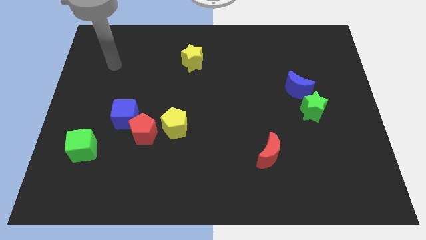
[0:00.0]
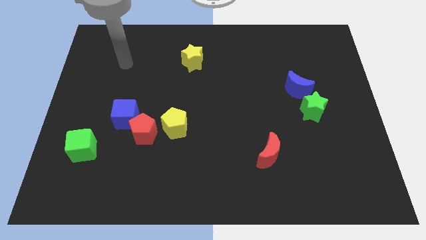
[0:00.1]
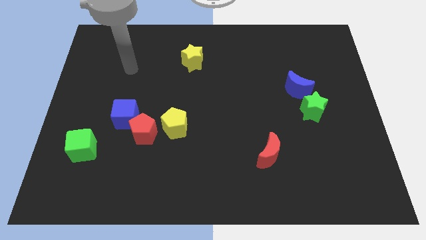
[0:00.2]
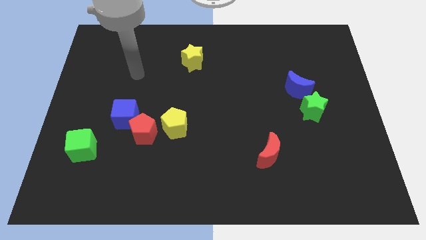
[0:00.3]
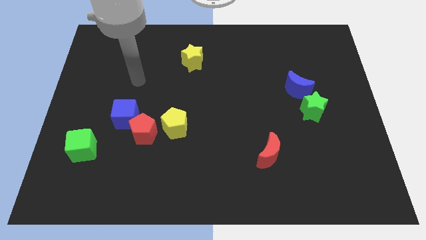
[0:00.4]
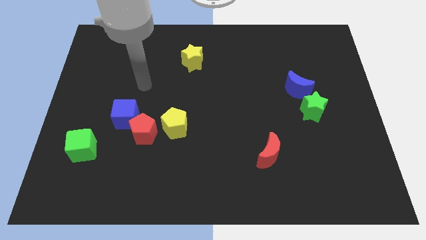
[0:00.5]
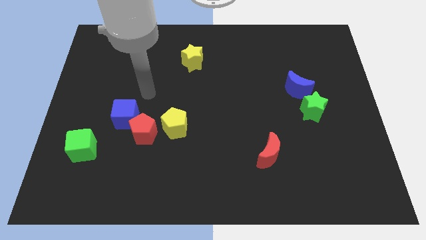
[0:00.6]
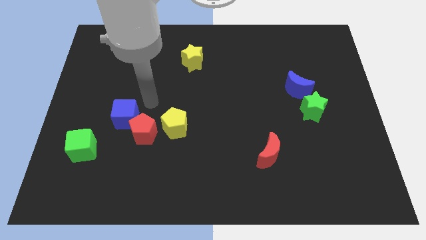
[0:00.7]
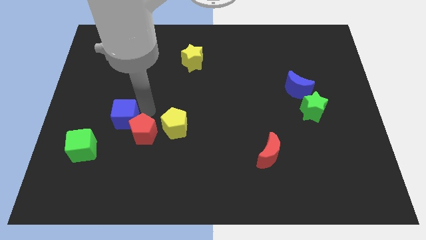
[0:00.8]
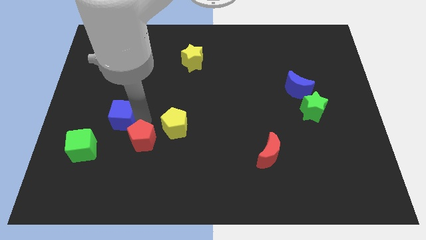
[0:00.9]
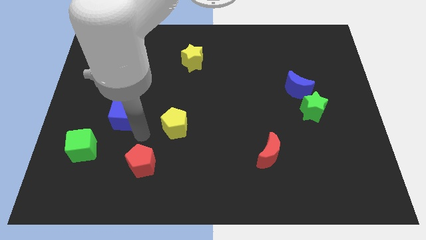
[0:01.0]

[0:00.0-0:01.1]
separate the blue cube from the red pentagon

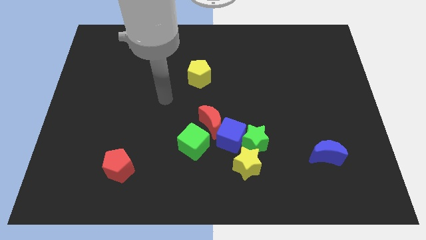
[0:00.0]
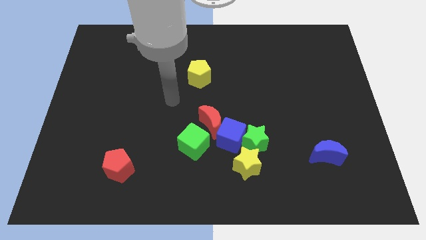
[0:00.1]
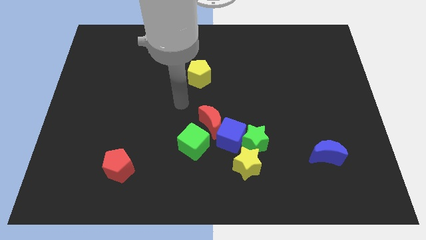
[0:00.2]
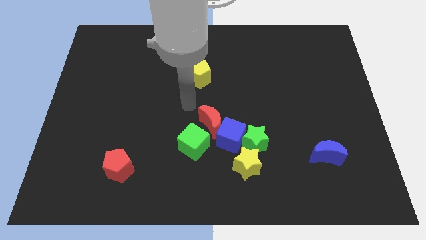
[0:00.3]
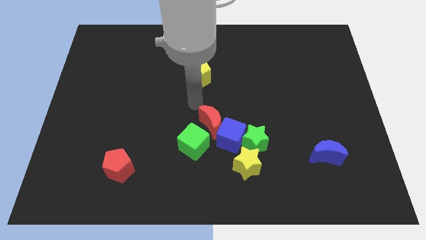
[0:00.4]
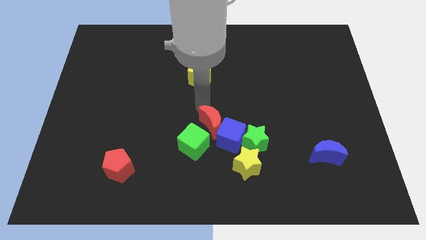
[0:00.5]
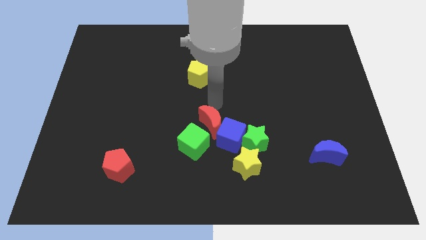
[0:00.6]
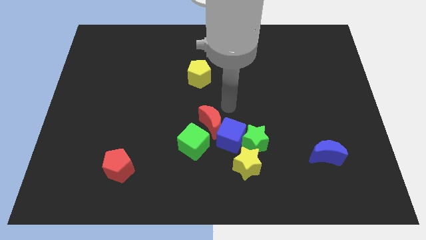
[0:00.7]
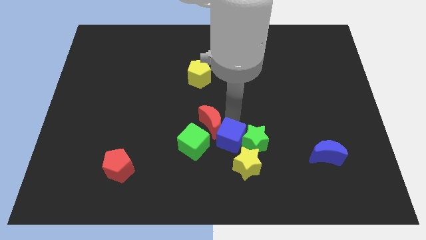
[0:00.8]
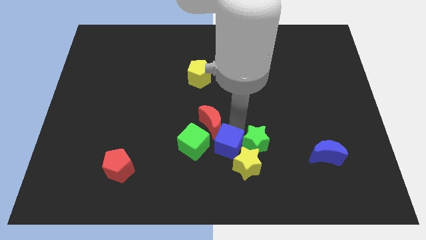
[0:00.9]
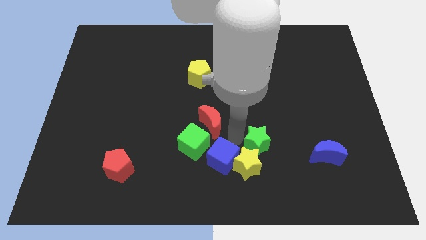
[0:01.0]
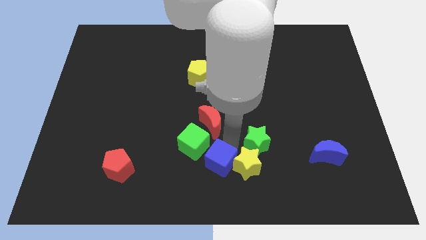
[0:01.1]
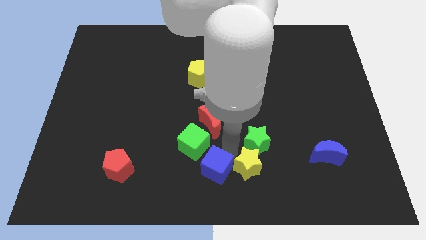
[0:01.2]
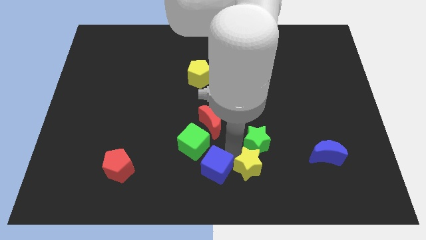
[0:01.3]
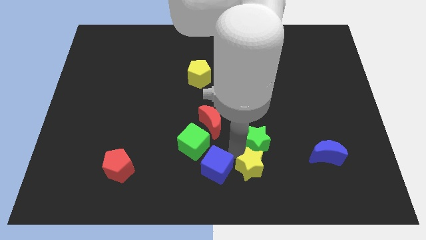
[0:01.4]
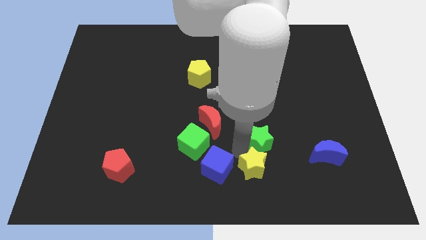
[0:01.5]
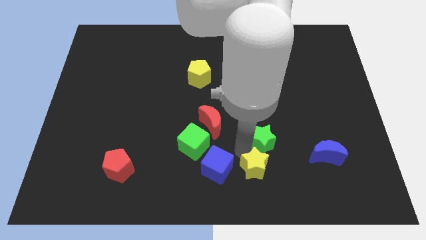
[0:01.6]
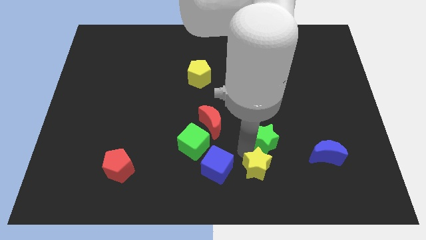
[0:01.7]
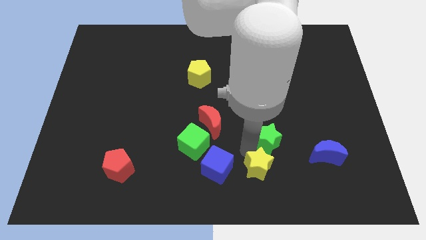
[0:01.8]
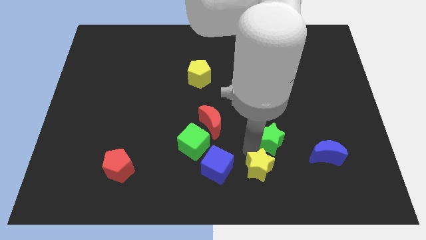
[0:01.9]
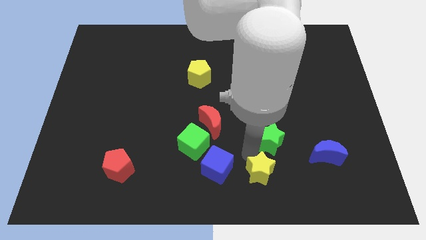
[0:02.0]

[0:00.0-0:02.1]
separate the green star from the blue cube and yellow star

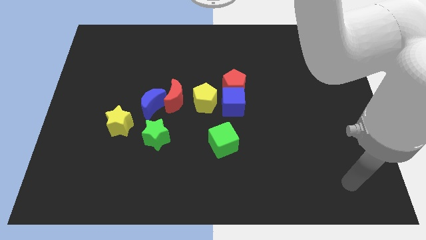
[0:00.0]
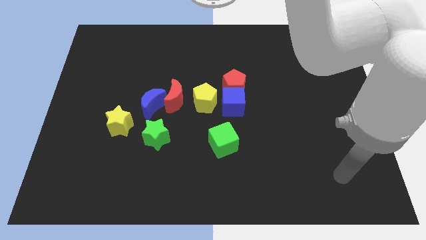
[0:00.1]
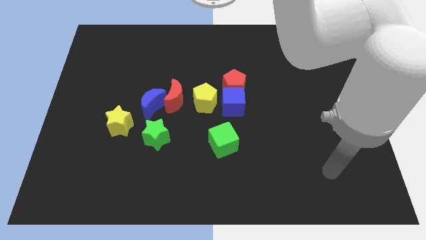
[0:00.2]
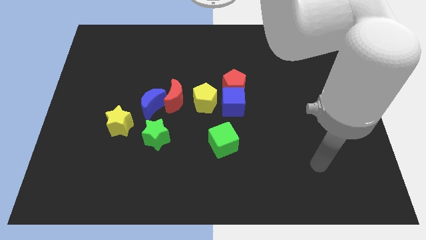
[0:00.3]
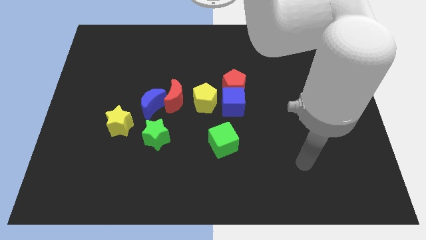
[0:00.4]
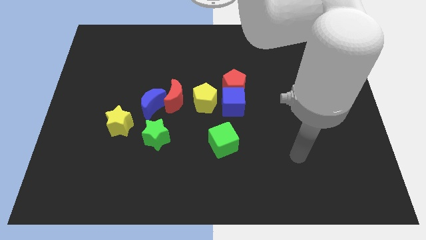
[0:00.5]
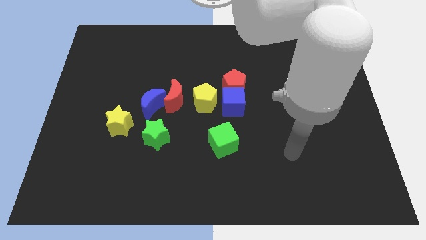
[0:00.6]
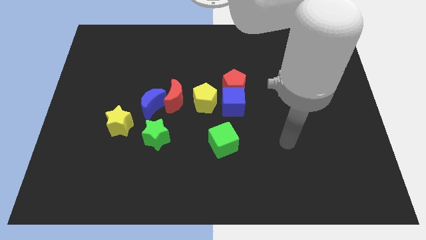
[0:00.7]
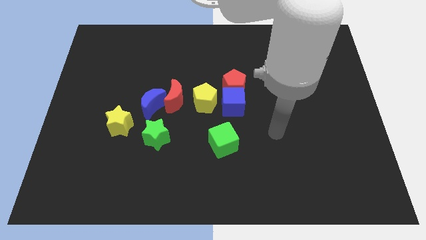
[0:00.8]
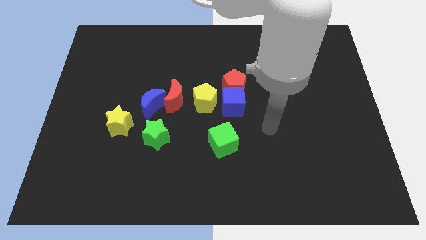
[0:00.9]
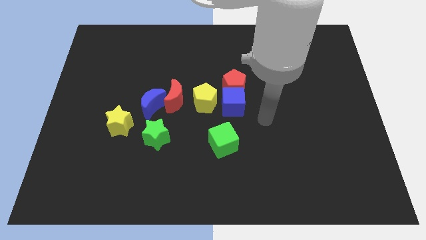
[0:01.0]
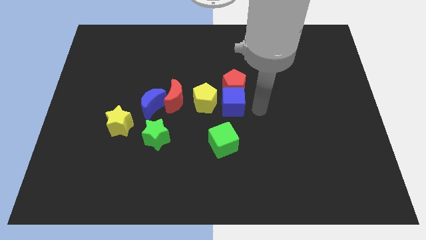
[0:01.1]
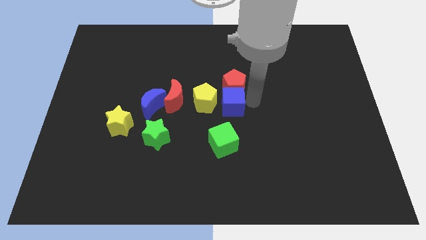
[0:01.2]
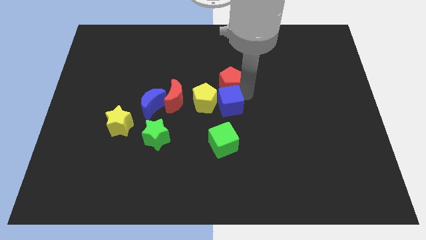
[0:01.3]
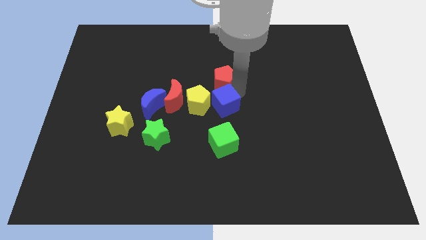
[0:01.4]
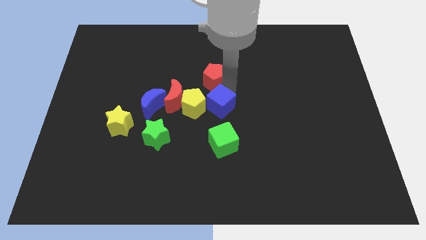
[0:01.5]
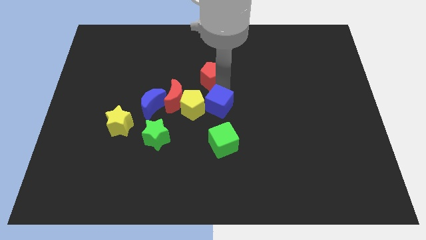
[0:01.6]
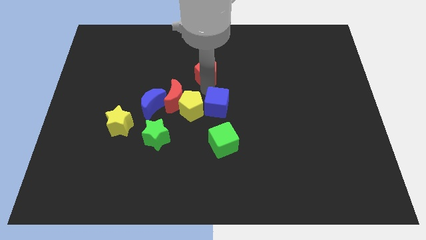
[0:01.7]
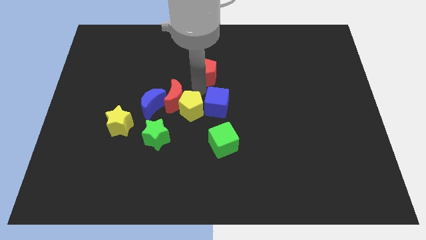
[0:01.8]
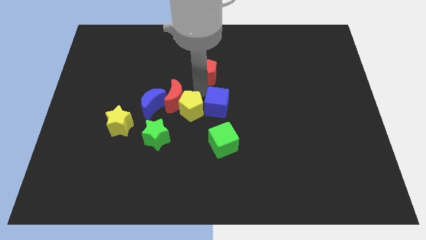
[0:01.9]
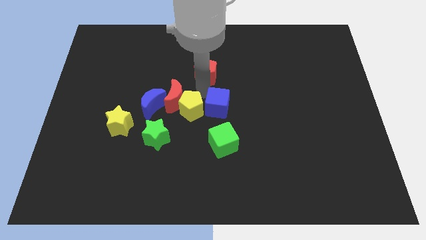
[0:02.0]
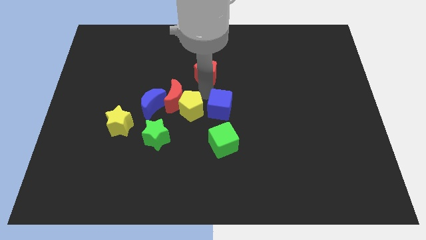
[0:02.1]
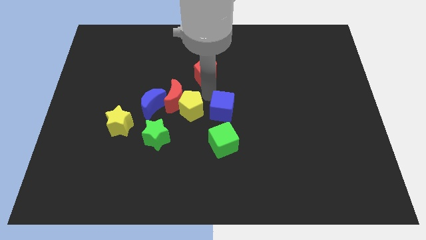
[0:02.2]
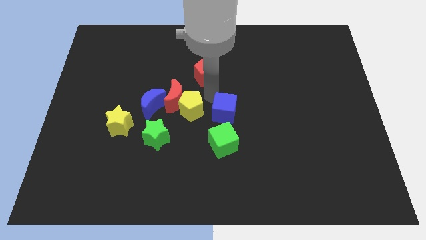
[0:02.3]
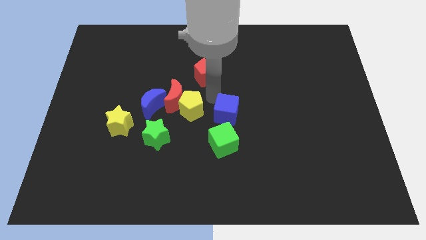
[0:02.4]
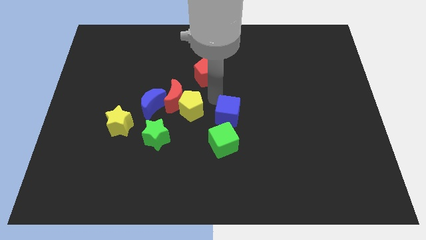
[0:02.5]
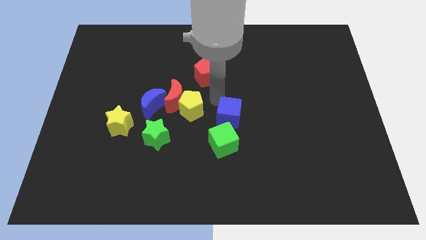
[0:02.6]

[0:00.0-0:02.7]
move the blue cube away from the red pentagon and yellow pentagon

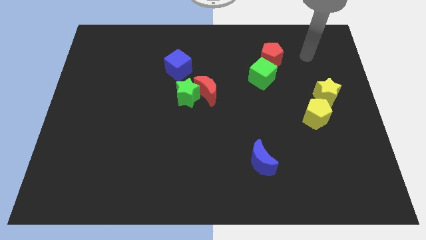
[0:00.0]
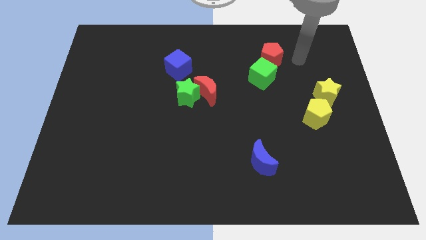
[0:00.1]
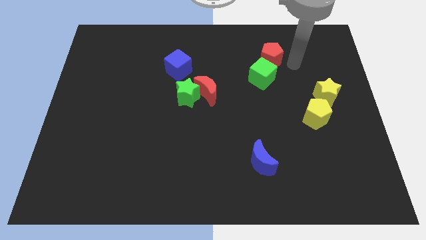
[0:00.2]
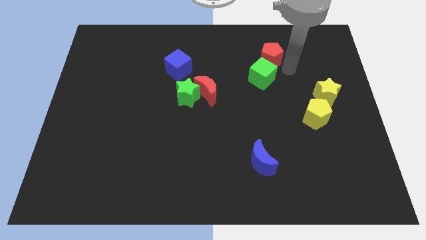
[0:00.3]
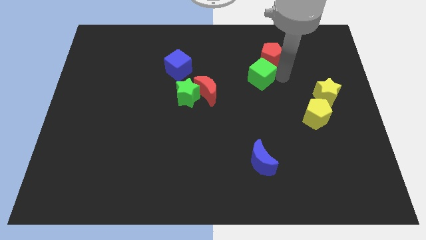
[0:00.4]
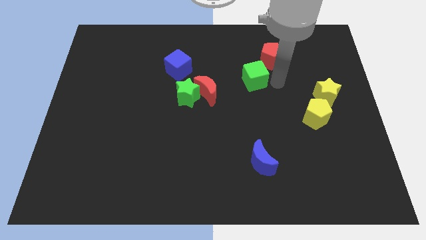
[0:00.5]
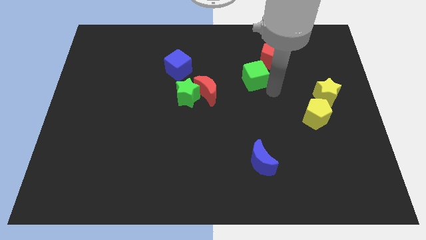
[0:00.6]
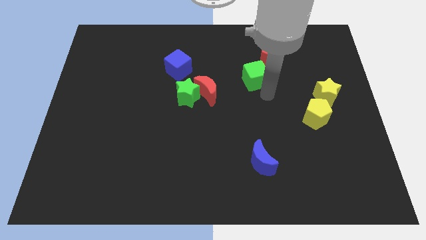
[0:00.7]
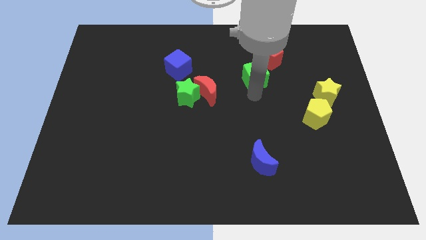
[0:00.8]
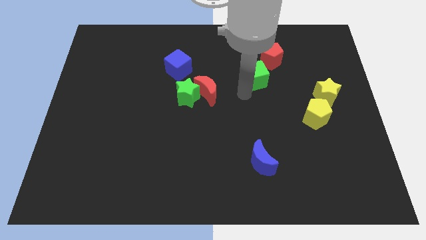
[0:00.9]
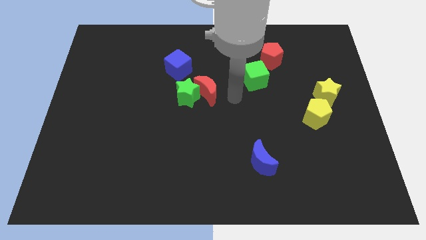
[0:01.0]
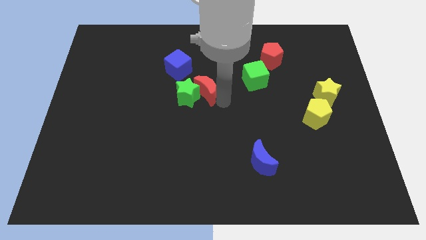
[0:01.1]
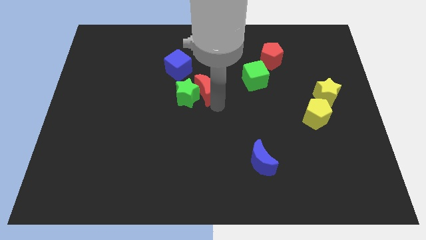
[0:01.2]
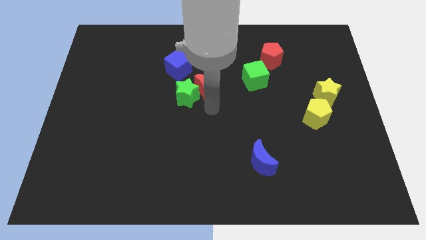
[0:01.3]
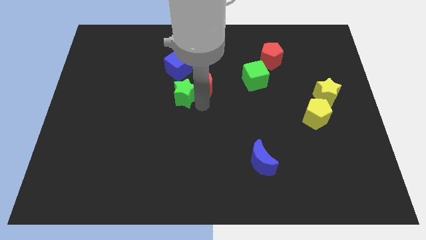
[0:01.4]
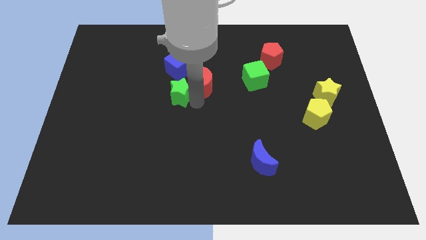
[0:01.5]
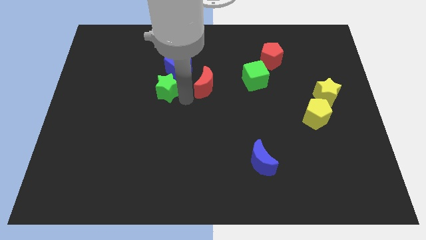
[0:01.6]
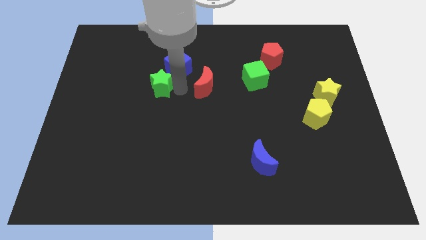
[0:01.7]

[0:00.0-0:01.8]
pull the red moon apart from the green star

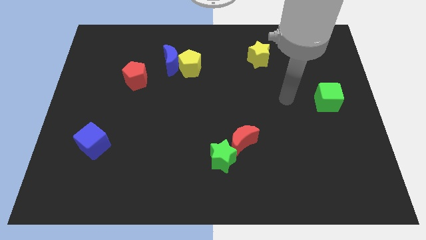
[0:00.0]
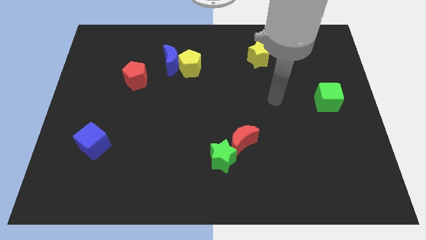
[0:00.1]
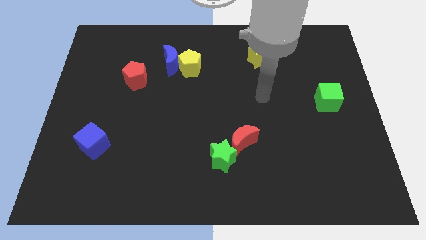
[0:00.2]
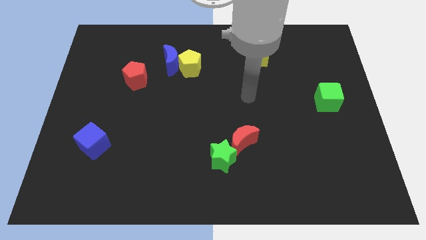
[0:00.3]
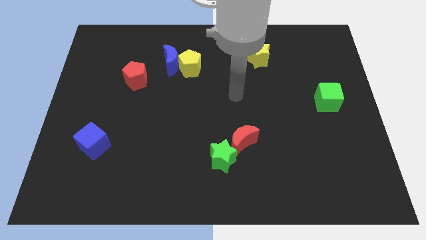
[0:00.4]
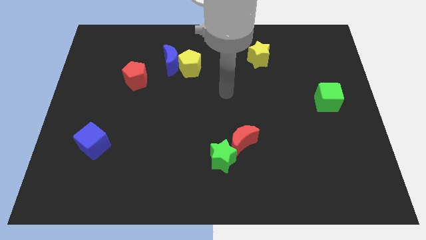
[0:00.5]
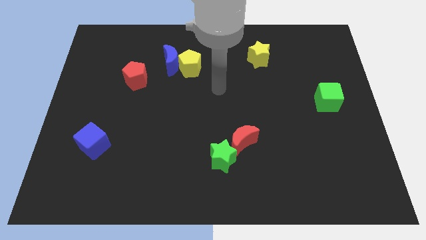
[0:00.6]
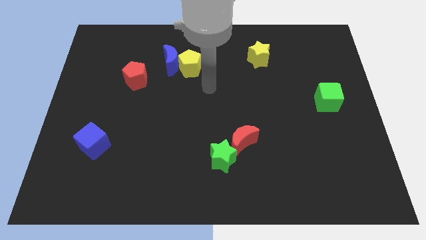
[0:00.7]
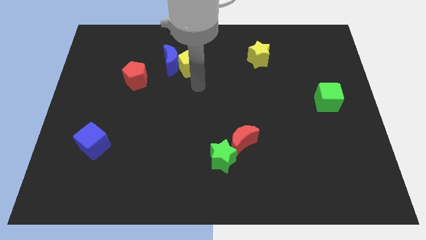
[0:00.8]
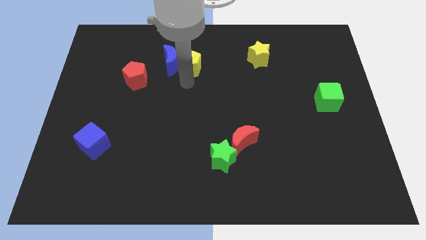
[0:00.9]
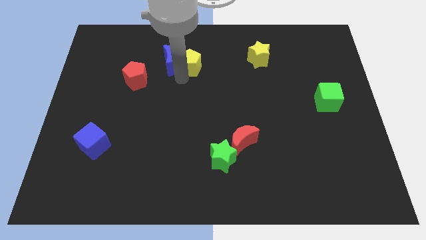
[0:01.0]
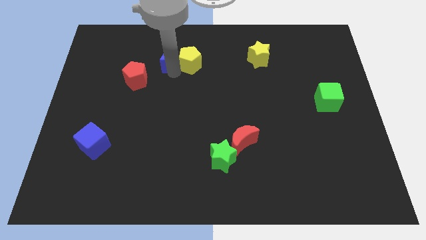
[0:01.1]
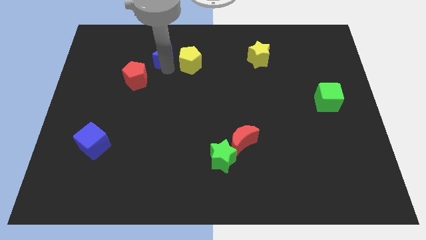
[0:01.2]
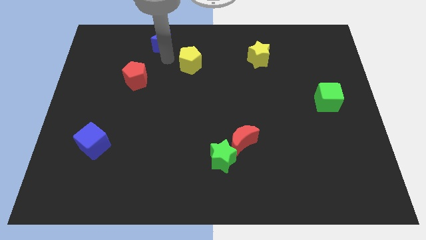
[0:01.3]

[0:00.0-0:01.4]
pull the yellow pentagon apart from the blue moon

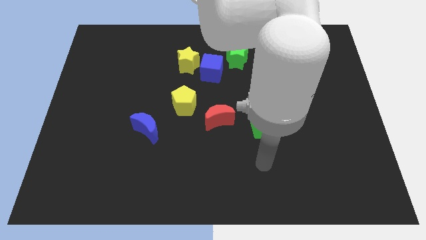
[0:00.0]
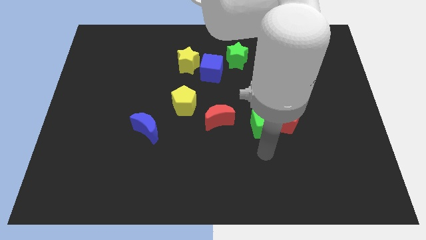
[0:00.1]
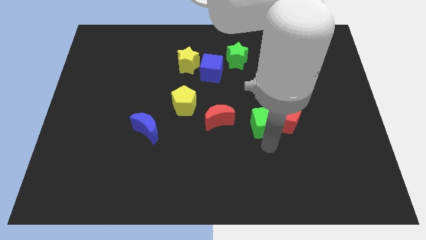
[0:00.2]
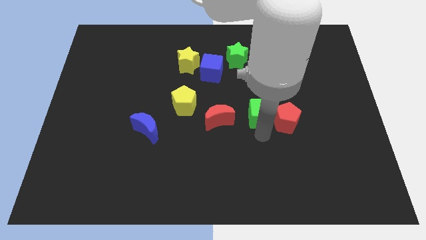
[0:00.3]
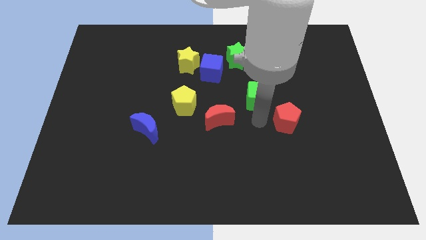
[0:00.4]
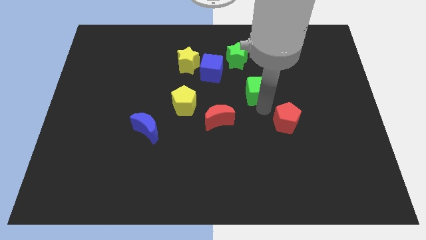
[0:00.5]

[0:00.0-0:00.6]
pull the red pentagon apart from the green cube
